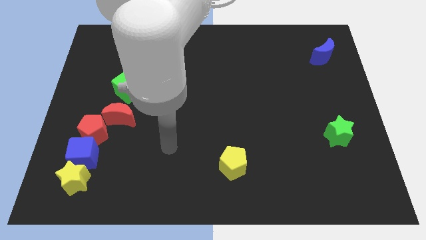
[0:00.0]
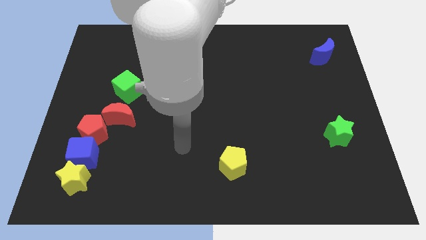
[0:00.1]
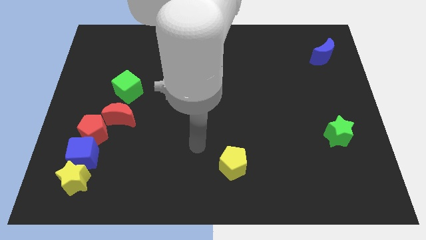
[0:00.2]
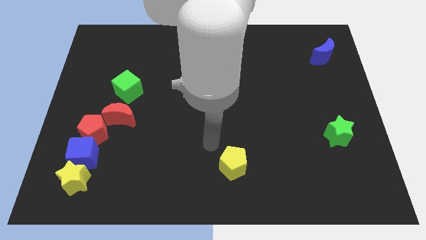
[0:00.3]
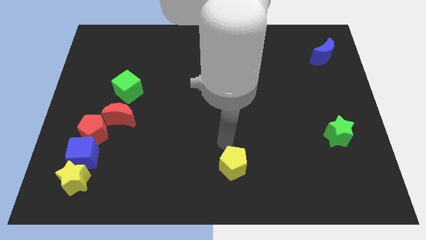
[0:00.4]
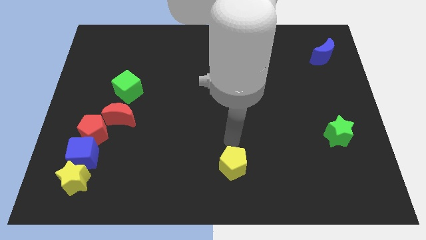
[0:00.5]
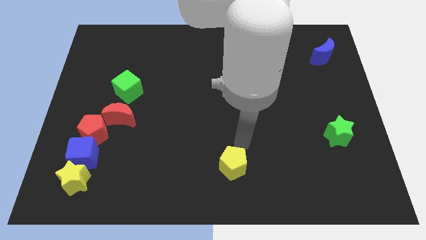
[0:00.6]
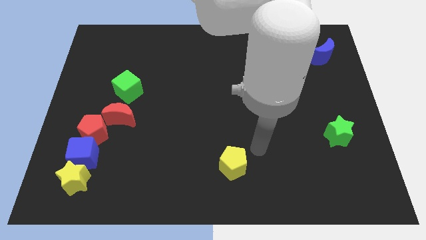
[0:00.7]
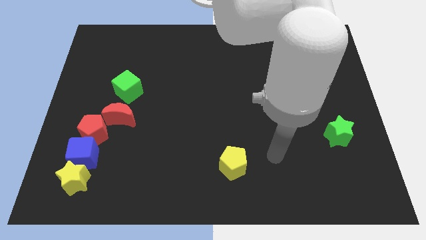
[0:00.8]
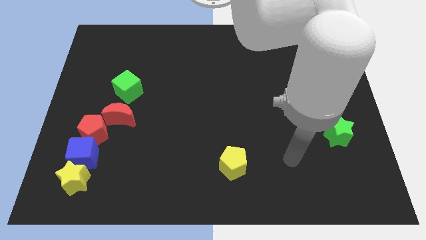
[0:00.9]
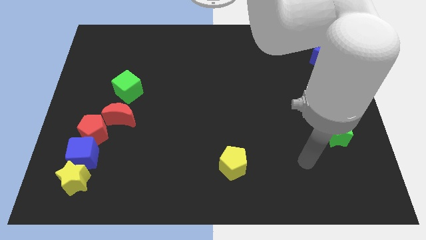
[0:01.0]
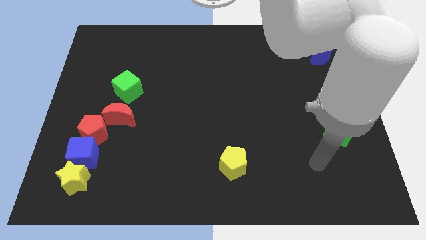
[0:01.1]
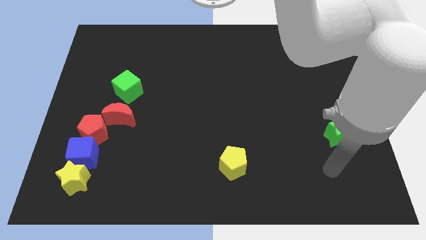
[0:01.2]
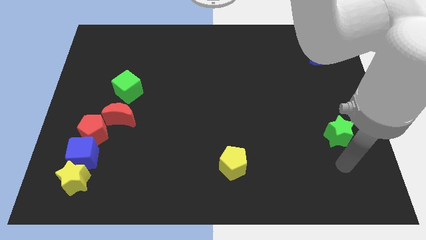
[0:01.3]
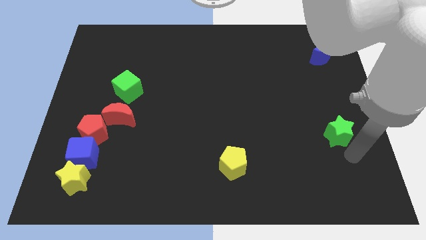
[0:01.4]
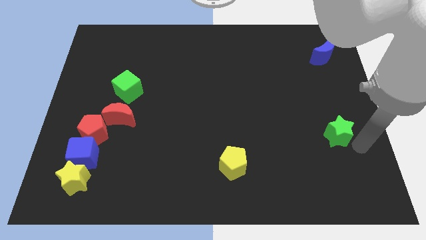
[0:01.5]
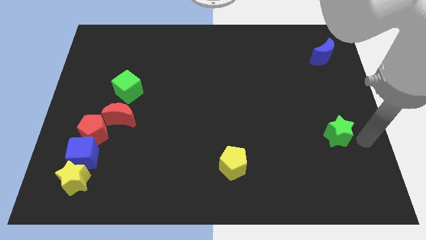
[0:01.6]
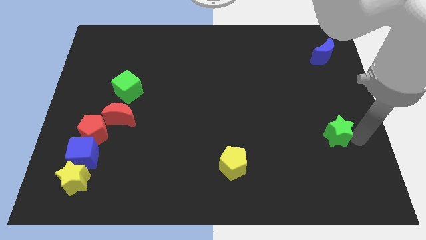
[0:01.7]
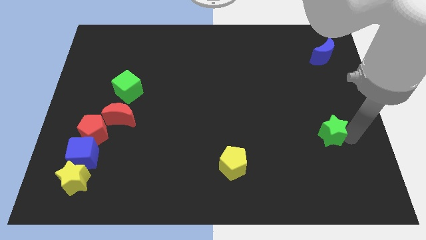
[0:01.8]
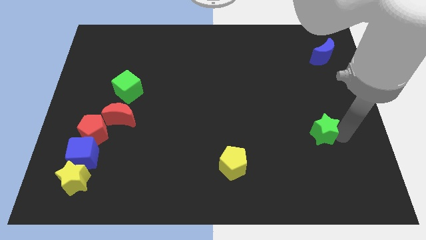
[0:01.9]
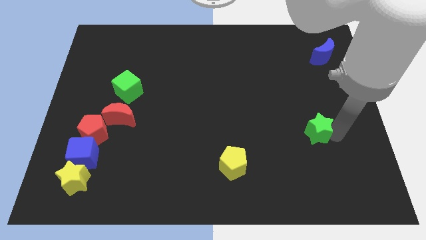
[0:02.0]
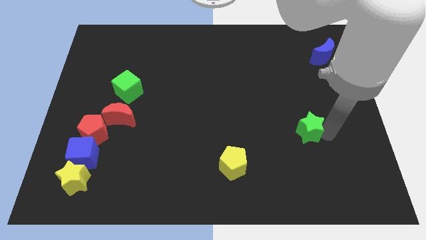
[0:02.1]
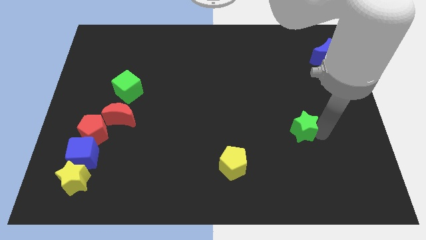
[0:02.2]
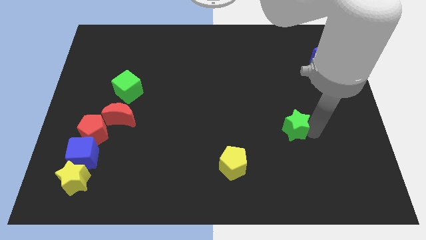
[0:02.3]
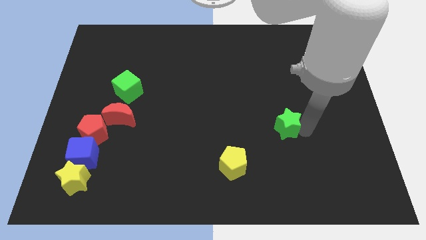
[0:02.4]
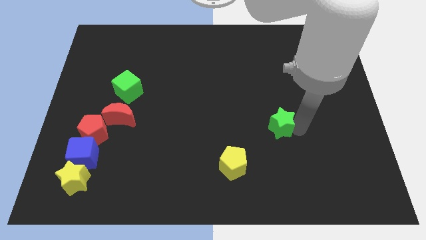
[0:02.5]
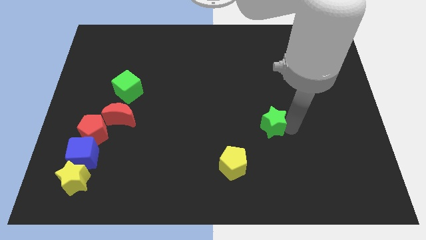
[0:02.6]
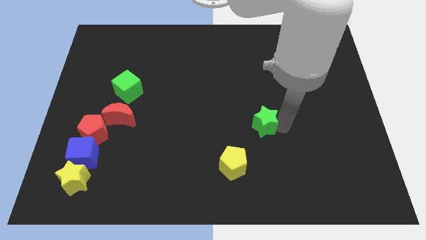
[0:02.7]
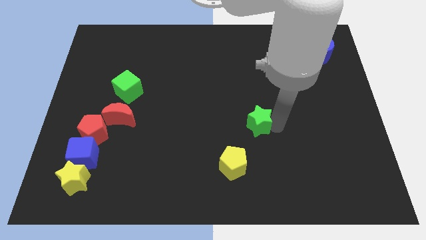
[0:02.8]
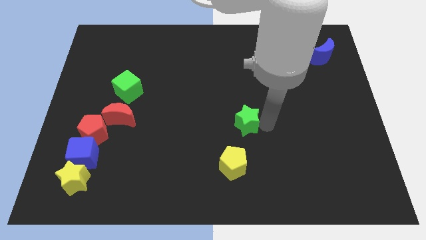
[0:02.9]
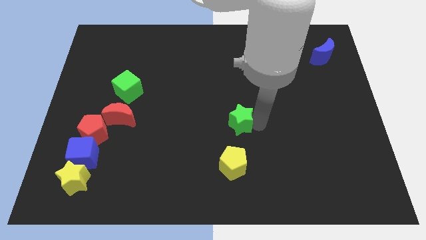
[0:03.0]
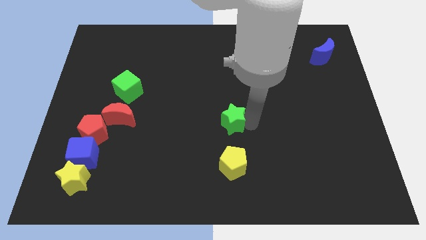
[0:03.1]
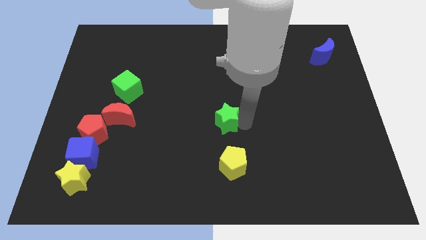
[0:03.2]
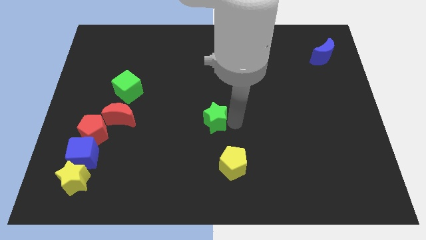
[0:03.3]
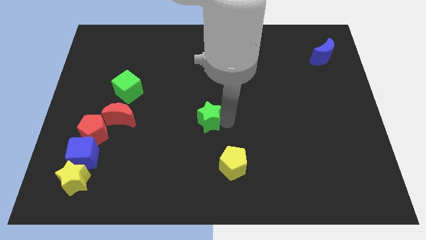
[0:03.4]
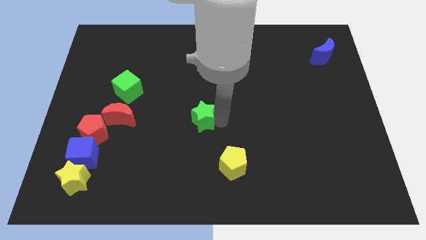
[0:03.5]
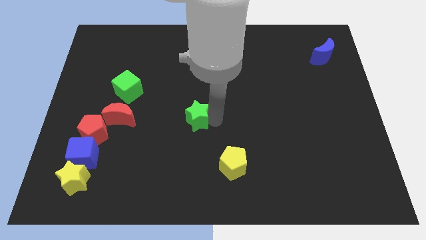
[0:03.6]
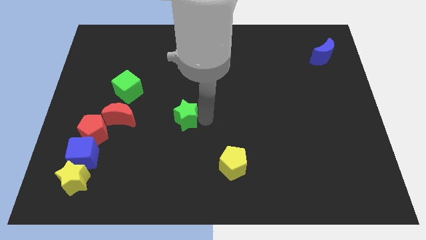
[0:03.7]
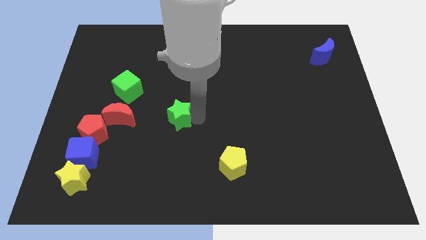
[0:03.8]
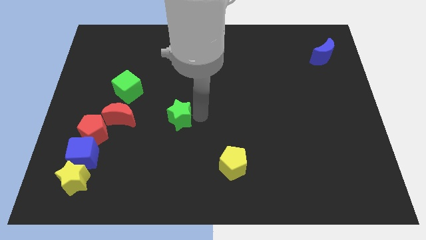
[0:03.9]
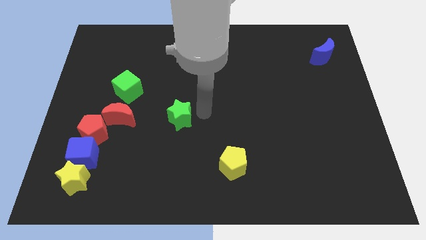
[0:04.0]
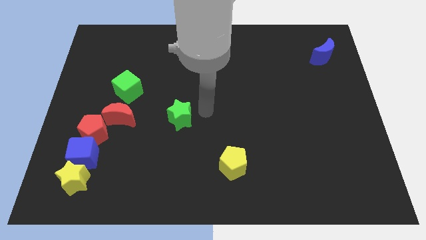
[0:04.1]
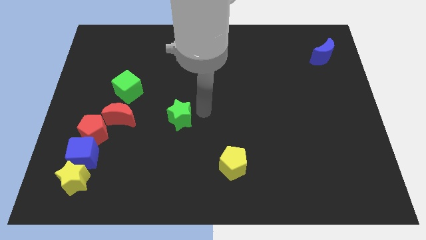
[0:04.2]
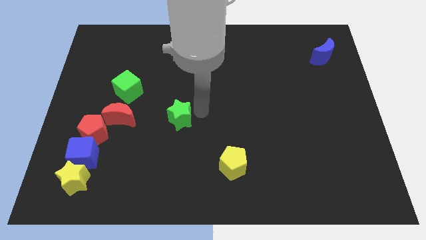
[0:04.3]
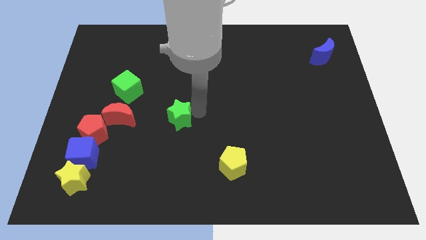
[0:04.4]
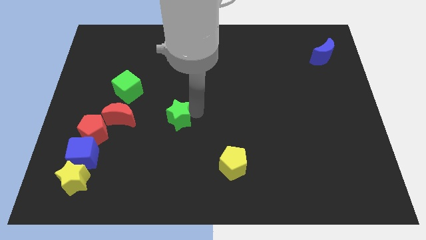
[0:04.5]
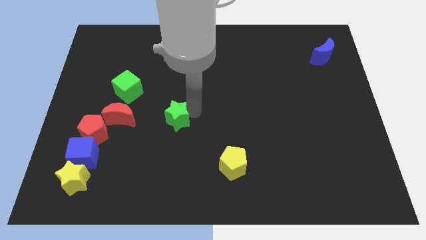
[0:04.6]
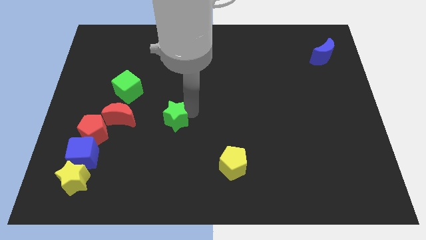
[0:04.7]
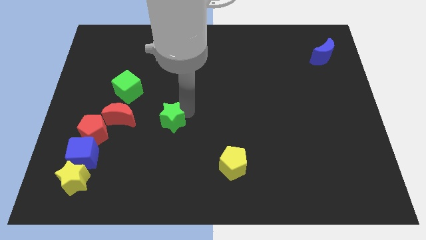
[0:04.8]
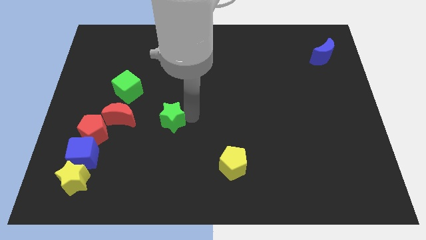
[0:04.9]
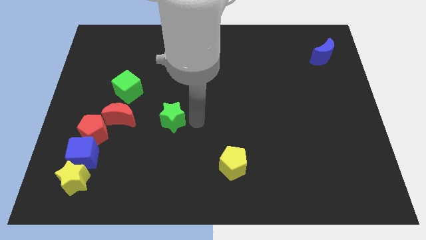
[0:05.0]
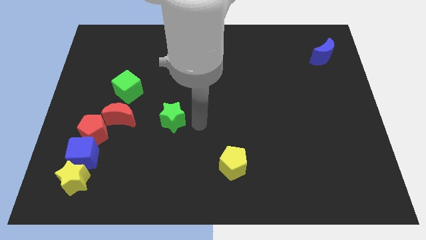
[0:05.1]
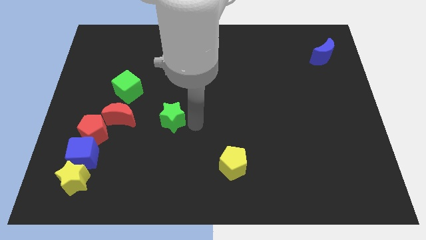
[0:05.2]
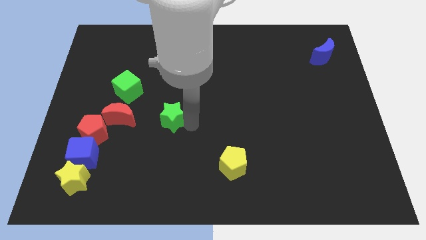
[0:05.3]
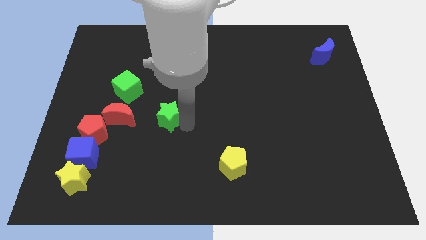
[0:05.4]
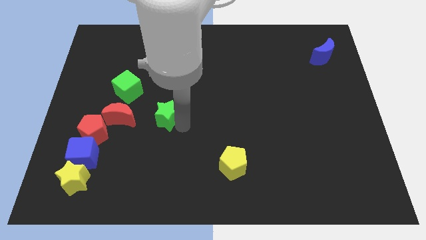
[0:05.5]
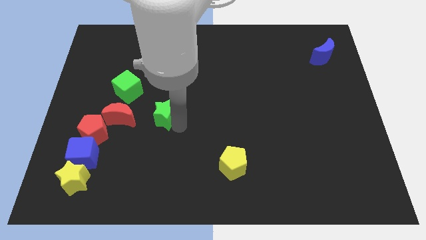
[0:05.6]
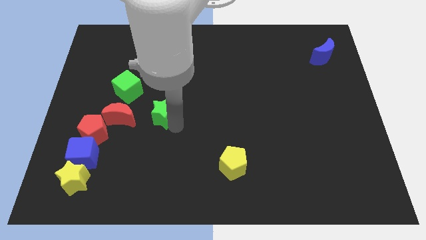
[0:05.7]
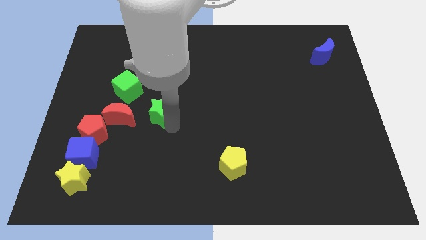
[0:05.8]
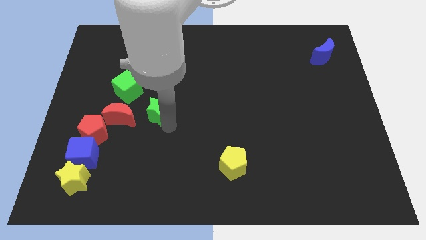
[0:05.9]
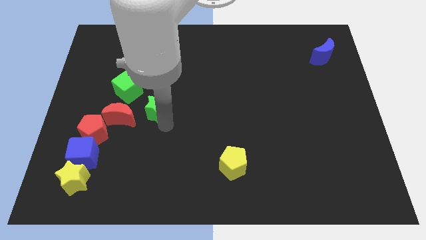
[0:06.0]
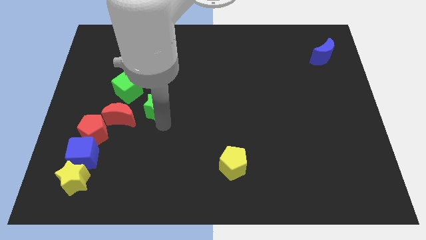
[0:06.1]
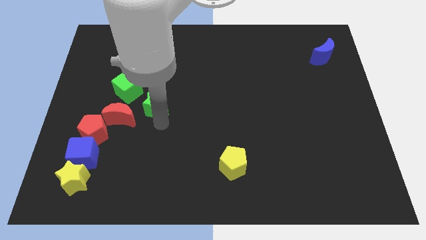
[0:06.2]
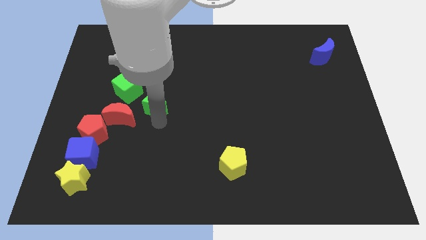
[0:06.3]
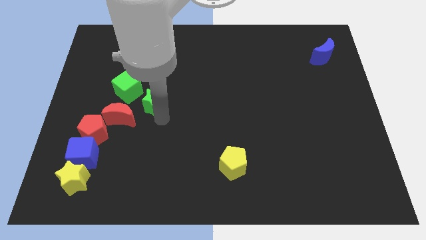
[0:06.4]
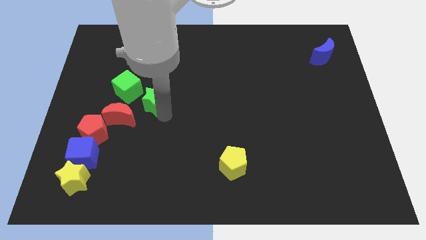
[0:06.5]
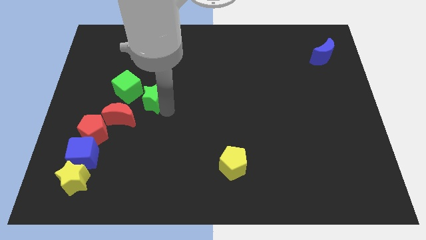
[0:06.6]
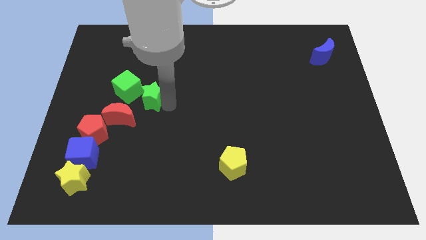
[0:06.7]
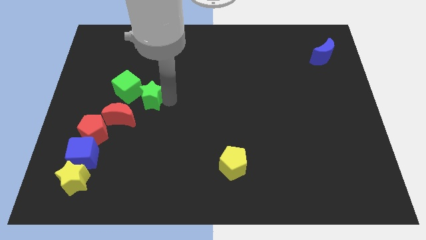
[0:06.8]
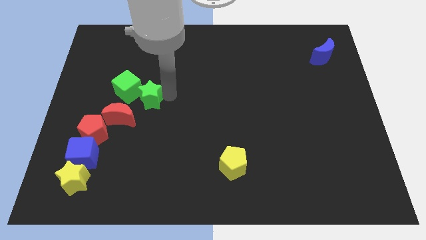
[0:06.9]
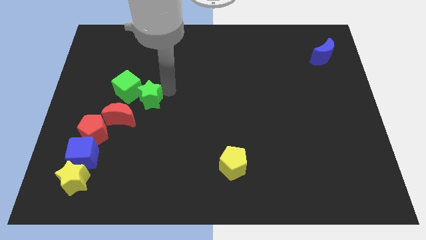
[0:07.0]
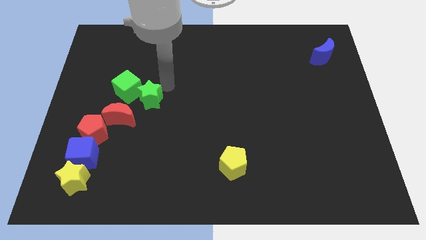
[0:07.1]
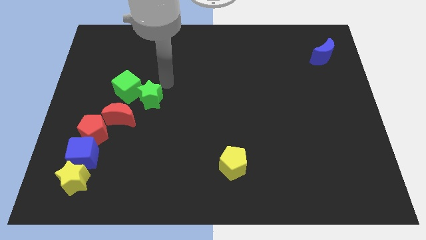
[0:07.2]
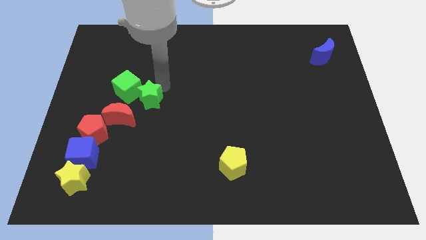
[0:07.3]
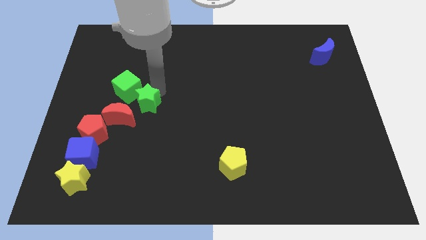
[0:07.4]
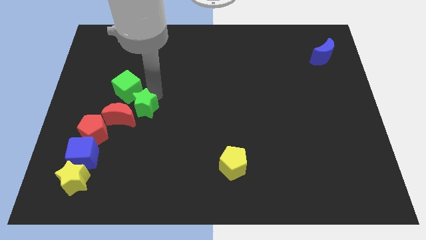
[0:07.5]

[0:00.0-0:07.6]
put the green star towards the red moon

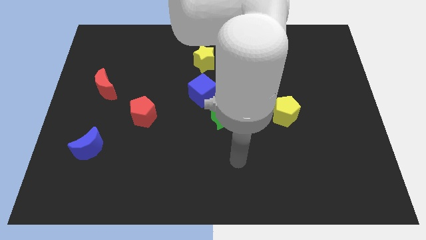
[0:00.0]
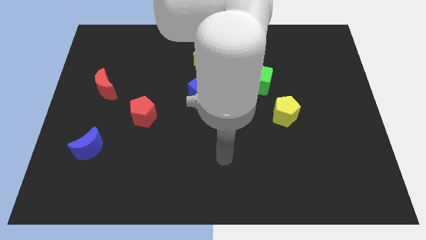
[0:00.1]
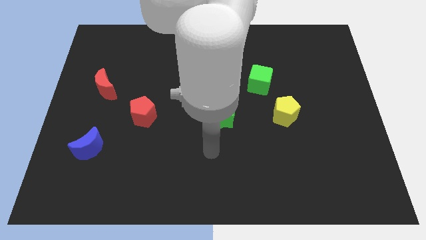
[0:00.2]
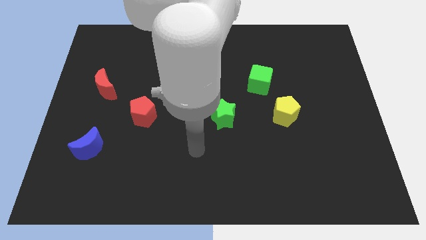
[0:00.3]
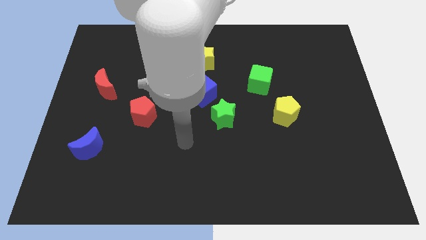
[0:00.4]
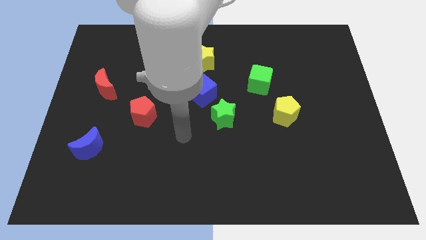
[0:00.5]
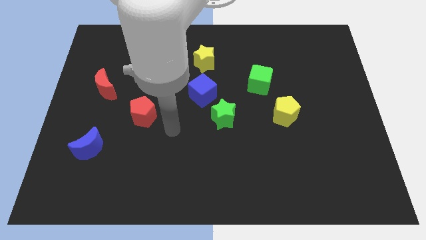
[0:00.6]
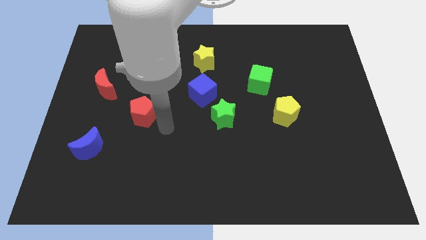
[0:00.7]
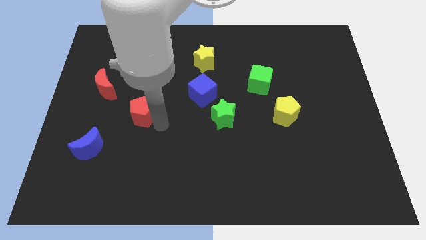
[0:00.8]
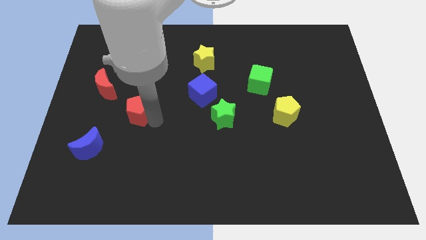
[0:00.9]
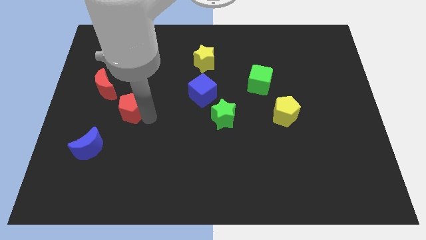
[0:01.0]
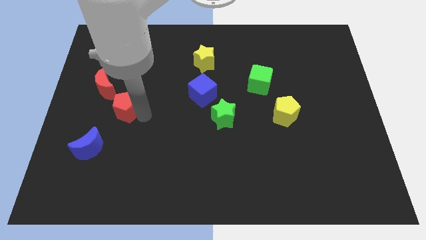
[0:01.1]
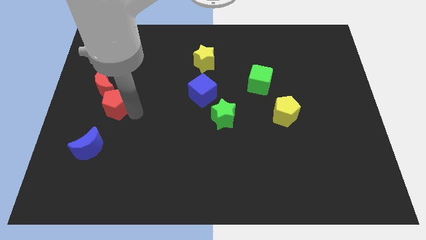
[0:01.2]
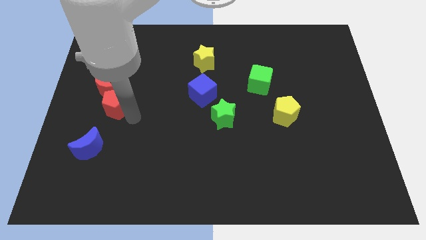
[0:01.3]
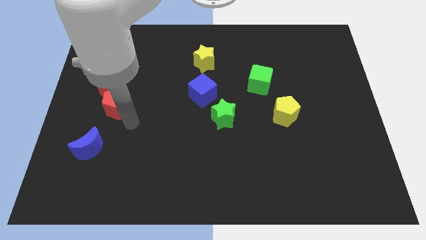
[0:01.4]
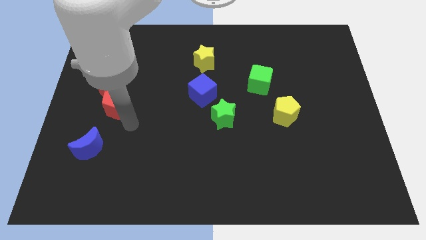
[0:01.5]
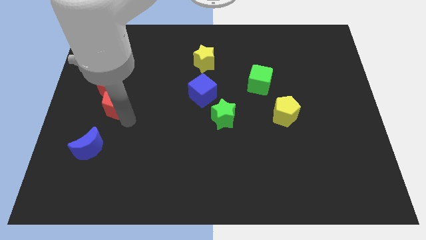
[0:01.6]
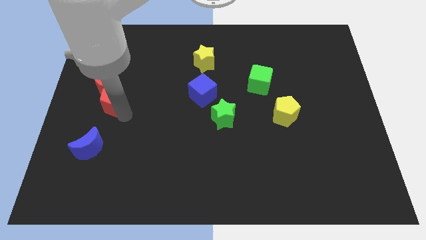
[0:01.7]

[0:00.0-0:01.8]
push the red pentagon to the red moon
